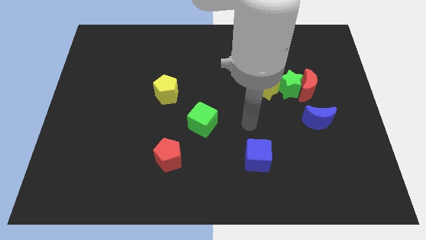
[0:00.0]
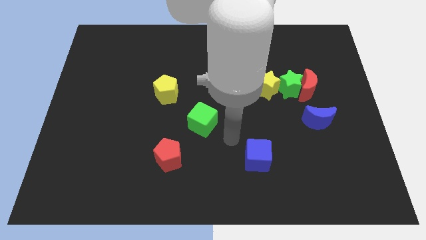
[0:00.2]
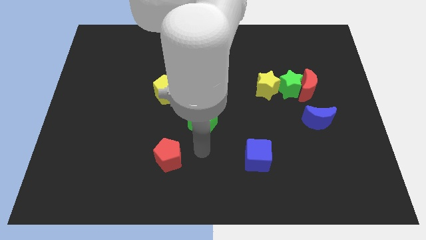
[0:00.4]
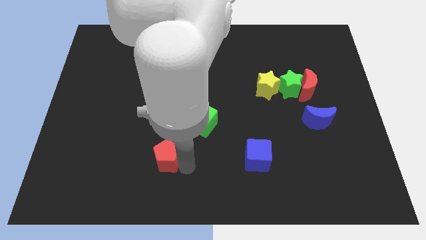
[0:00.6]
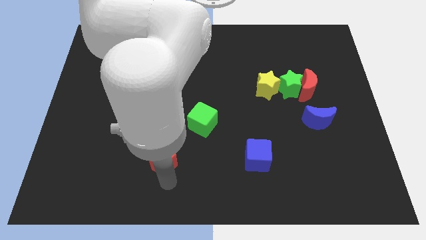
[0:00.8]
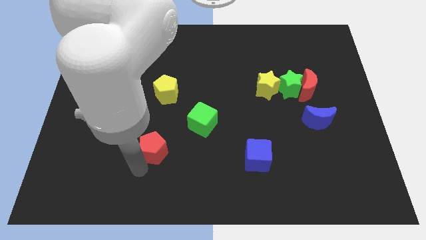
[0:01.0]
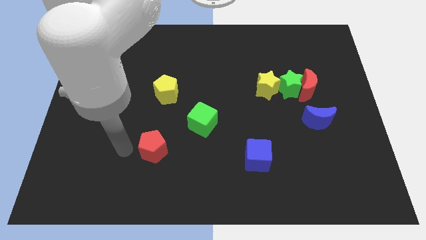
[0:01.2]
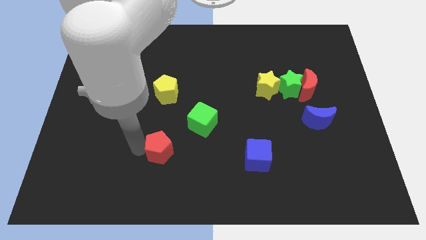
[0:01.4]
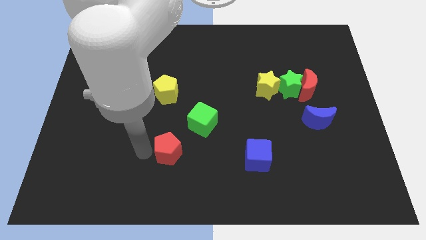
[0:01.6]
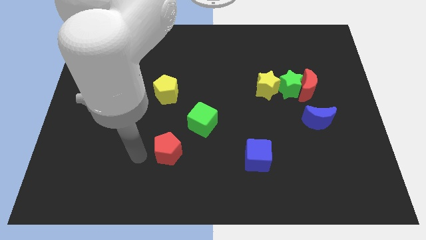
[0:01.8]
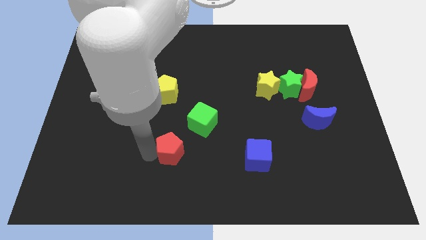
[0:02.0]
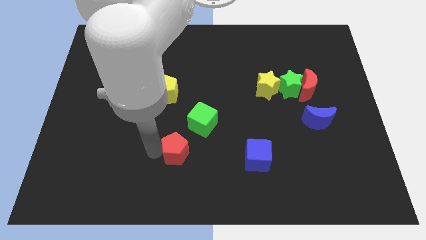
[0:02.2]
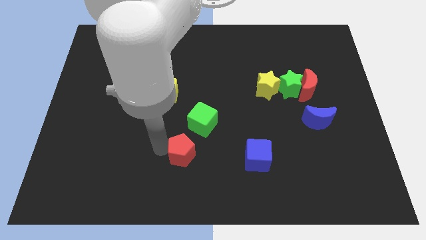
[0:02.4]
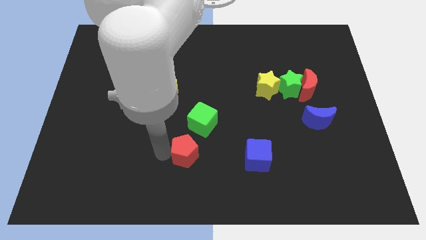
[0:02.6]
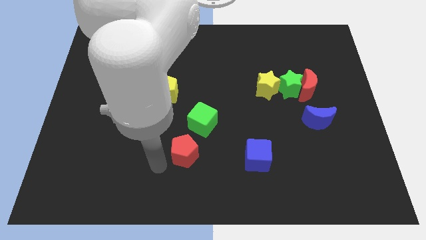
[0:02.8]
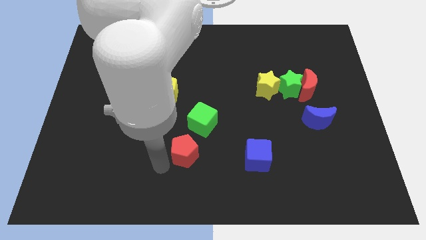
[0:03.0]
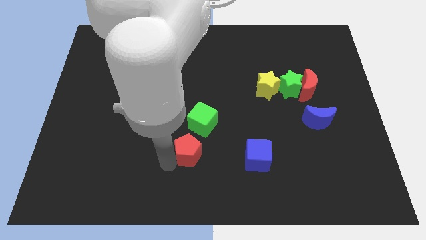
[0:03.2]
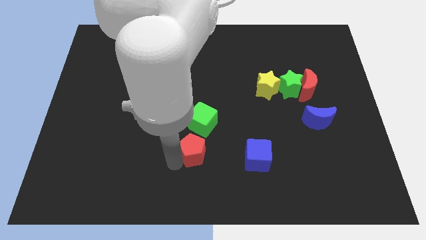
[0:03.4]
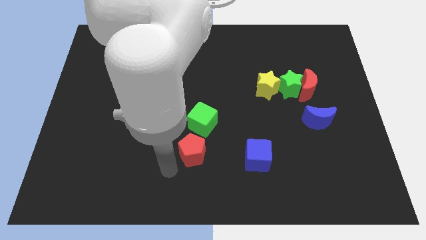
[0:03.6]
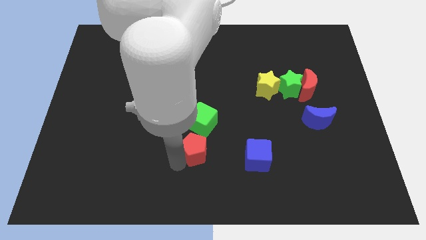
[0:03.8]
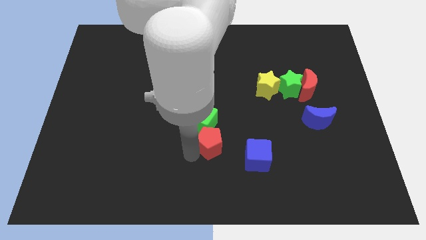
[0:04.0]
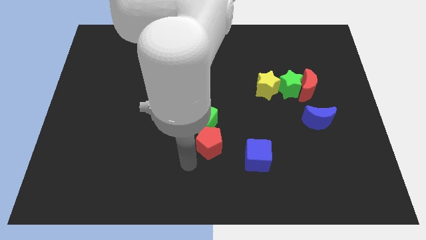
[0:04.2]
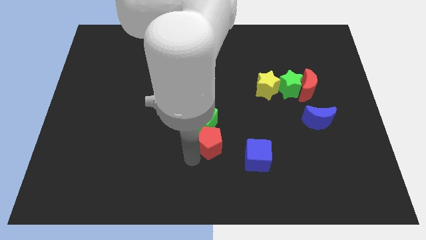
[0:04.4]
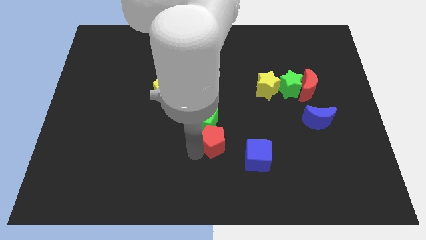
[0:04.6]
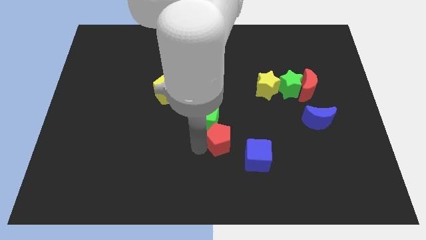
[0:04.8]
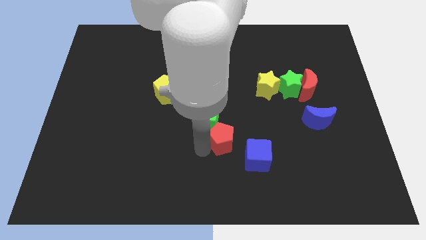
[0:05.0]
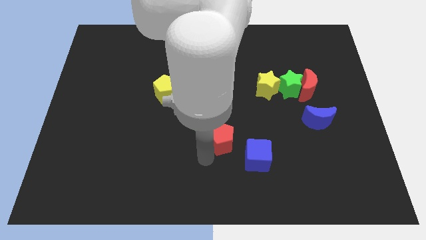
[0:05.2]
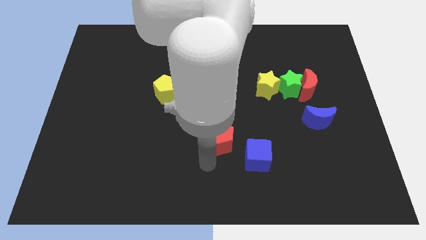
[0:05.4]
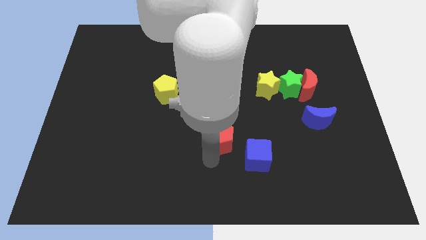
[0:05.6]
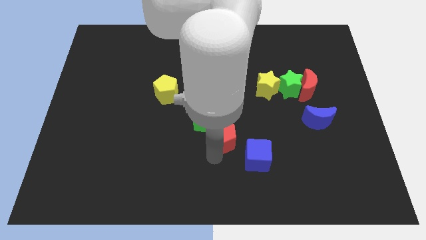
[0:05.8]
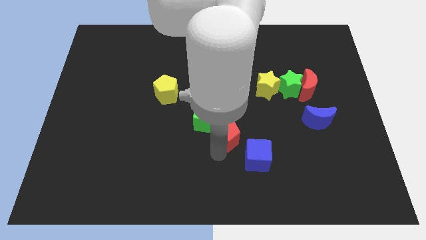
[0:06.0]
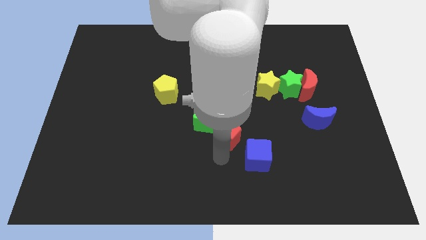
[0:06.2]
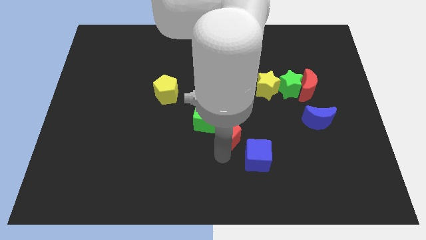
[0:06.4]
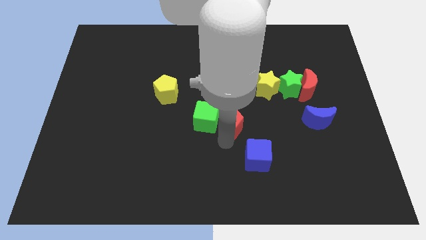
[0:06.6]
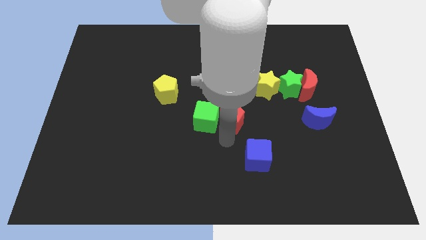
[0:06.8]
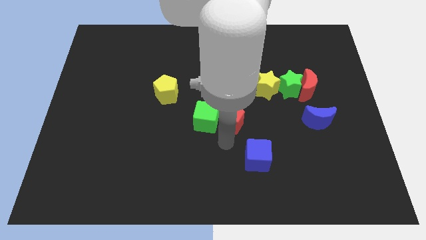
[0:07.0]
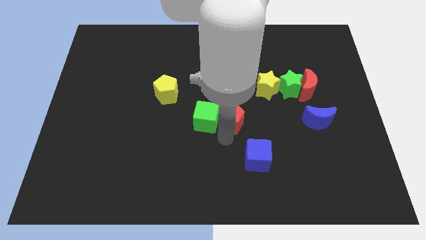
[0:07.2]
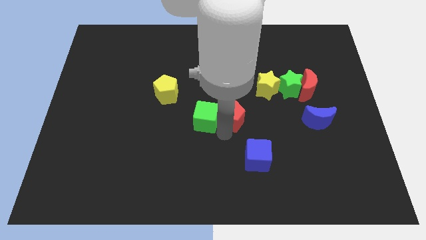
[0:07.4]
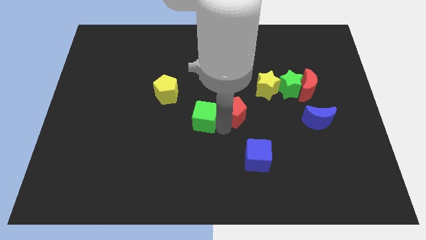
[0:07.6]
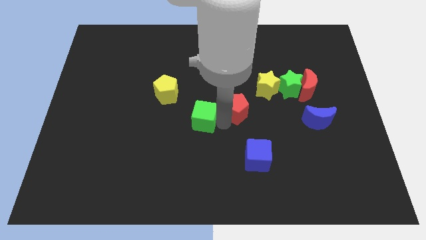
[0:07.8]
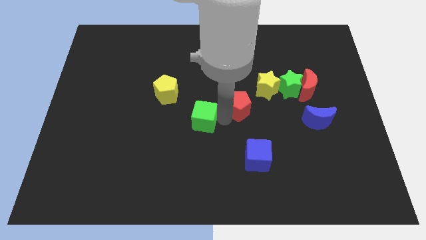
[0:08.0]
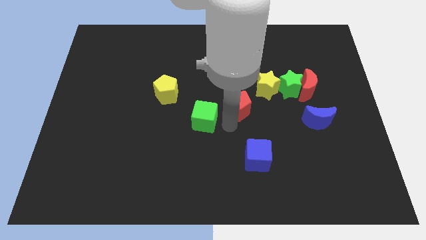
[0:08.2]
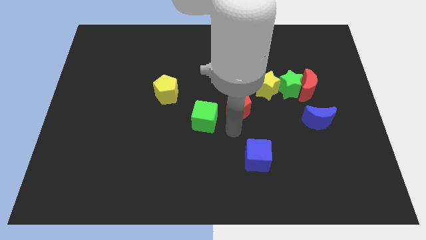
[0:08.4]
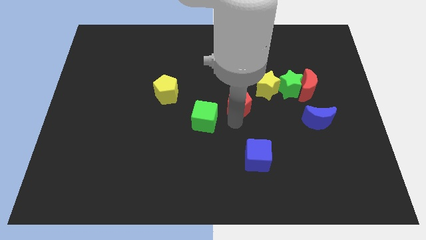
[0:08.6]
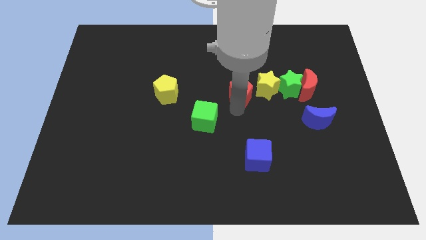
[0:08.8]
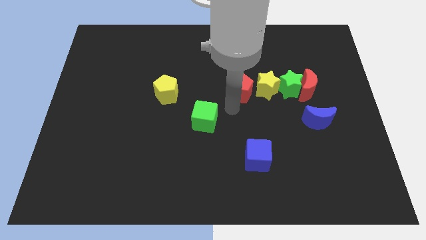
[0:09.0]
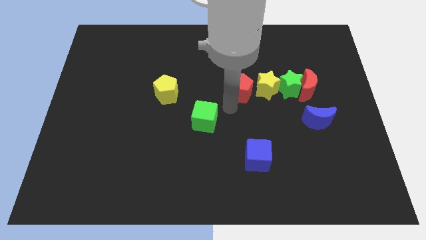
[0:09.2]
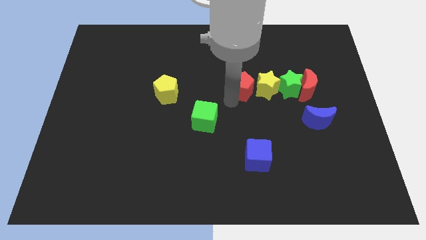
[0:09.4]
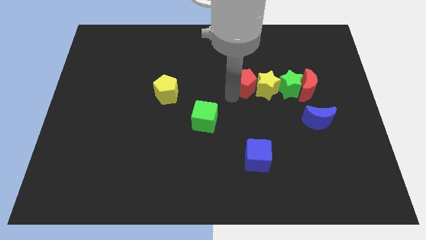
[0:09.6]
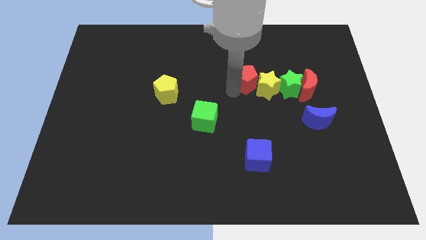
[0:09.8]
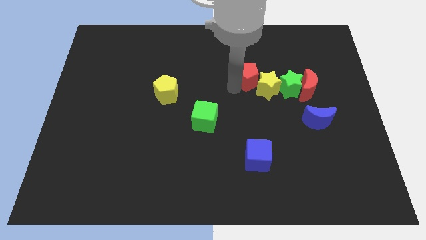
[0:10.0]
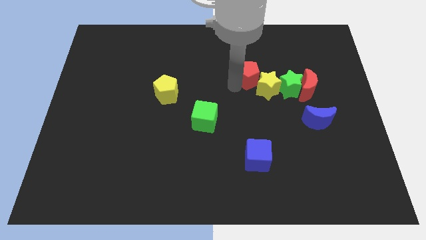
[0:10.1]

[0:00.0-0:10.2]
push the red pentagon to the top of the yellow star

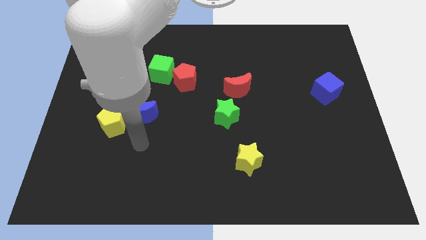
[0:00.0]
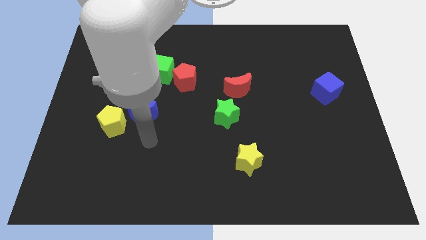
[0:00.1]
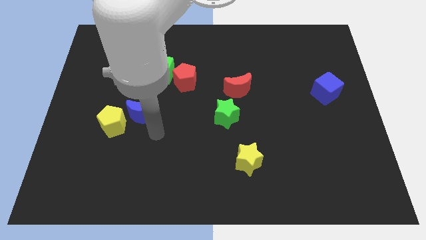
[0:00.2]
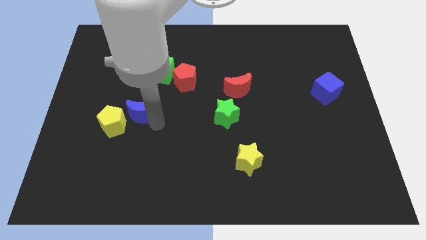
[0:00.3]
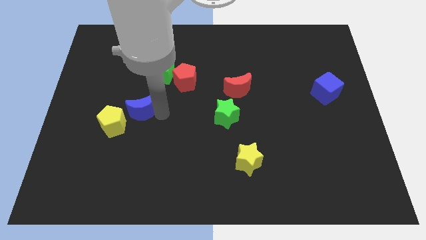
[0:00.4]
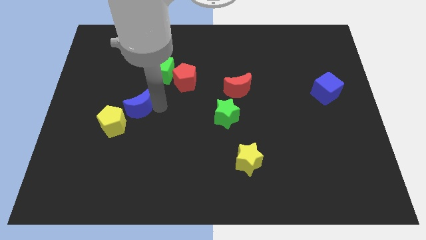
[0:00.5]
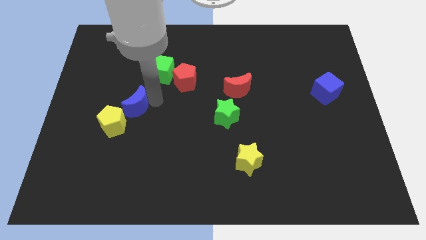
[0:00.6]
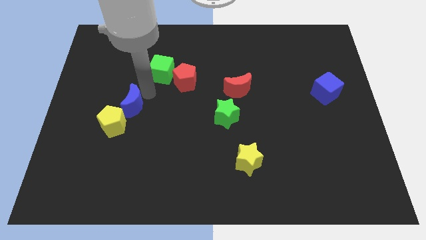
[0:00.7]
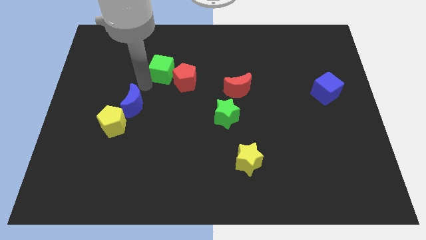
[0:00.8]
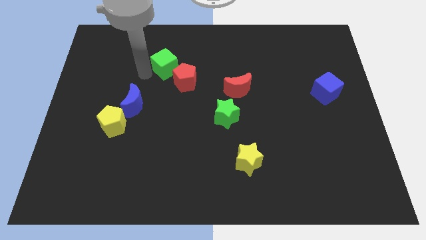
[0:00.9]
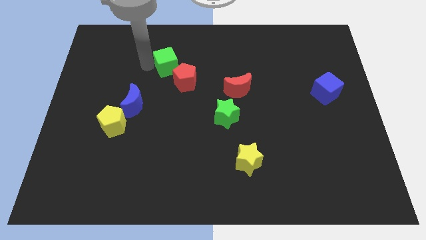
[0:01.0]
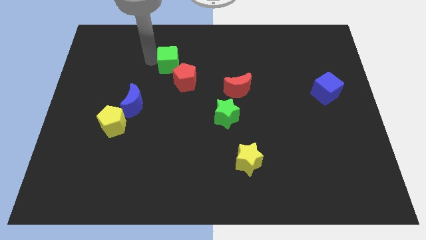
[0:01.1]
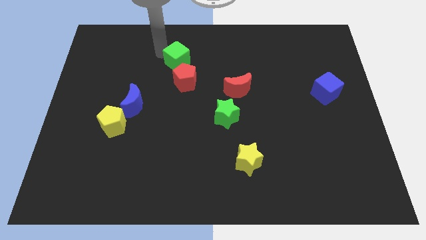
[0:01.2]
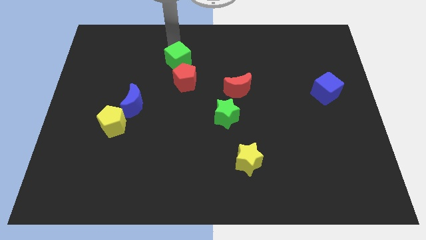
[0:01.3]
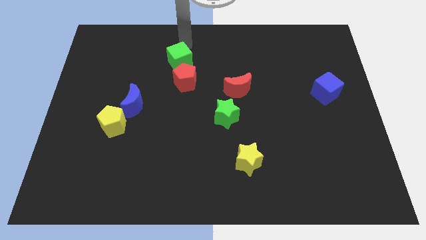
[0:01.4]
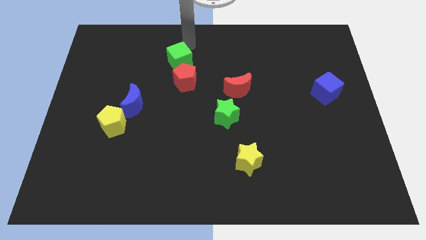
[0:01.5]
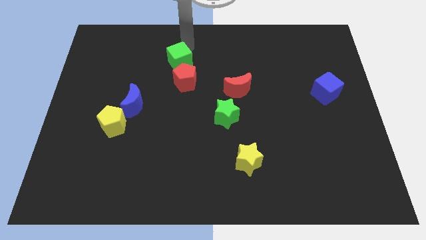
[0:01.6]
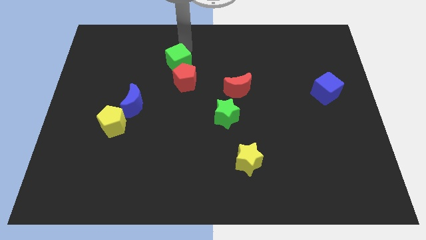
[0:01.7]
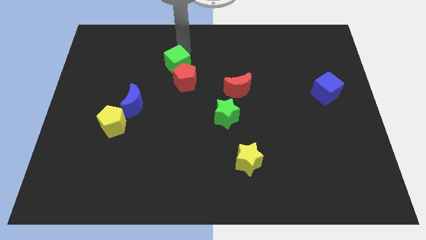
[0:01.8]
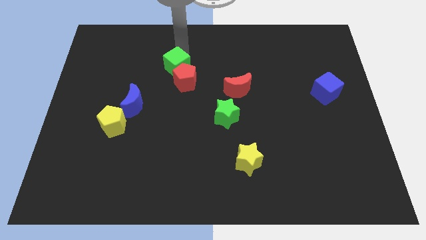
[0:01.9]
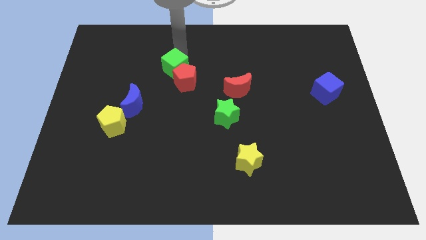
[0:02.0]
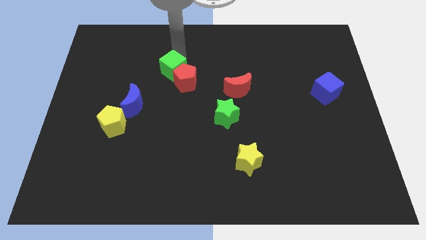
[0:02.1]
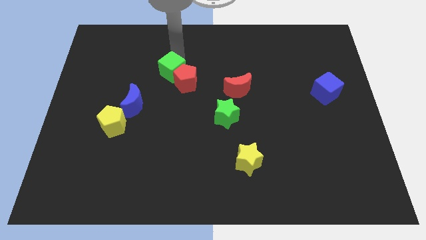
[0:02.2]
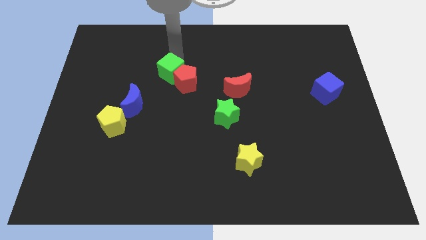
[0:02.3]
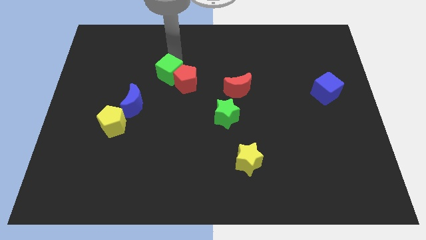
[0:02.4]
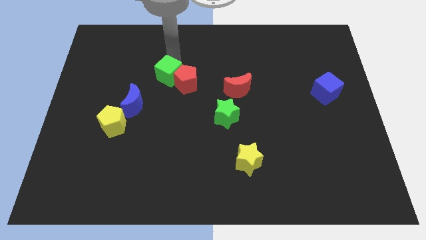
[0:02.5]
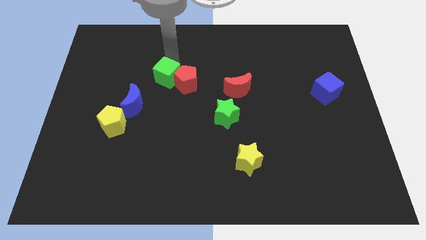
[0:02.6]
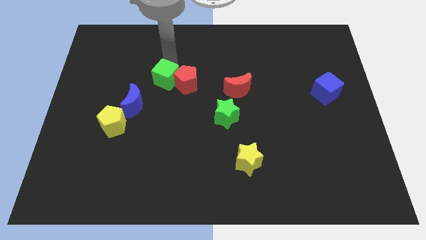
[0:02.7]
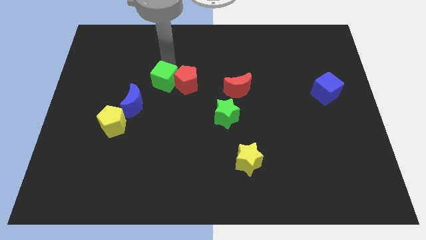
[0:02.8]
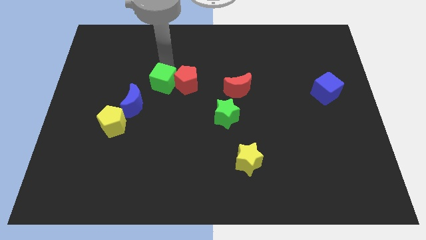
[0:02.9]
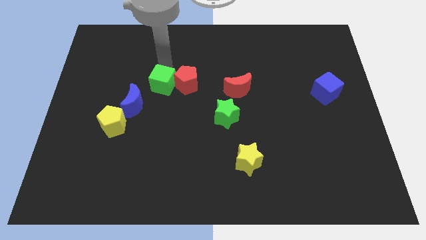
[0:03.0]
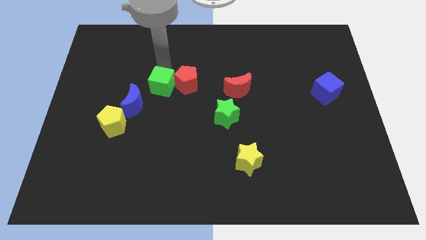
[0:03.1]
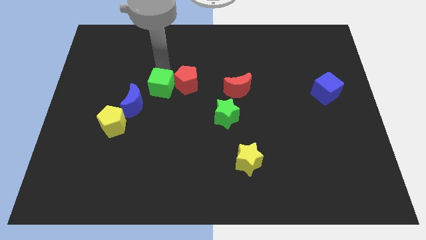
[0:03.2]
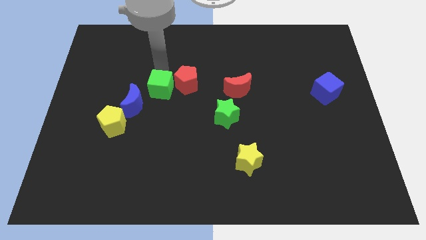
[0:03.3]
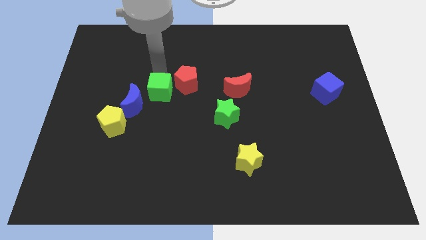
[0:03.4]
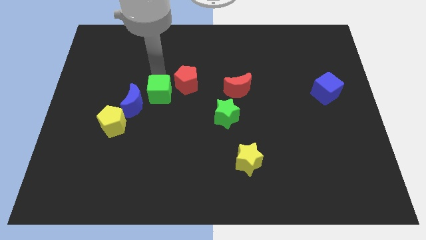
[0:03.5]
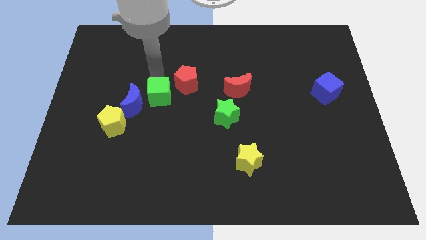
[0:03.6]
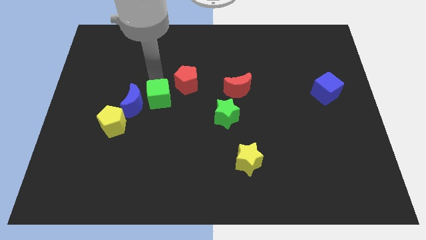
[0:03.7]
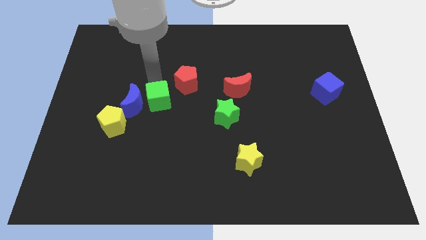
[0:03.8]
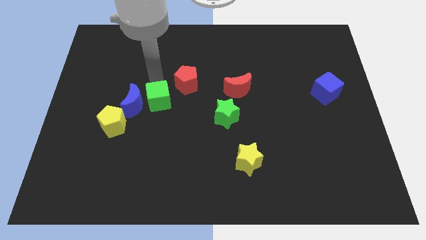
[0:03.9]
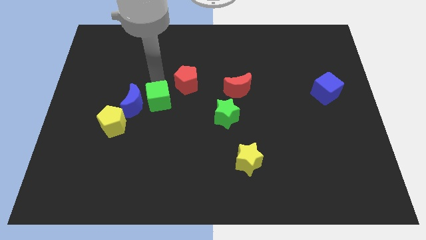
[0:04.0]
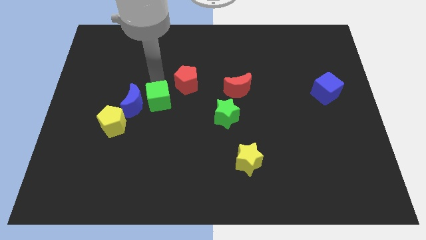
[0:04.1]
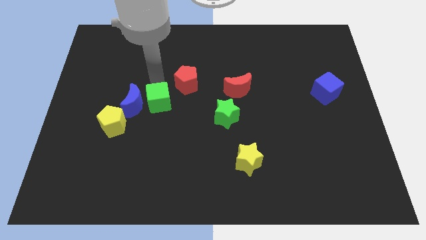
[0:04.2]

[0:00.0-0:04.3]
move the green cube to the bottom right of the blue moon
